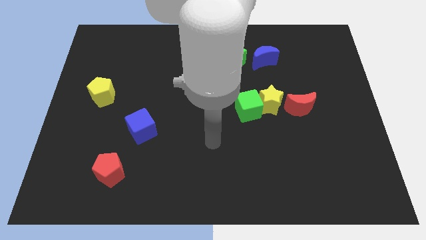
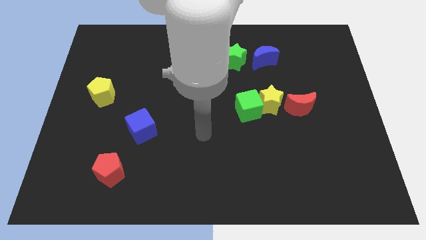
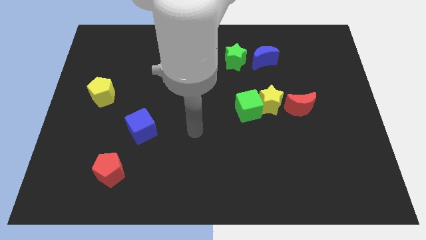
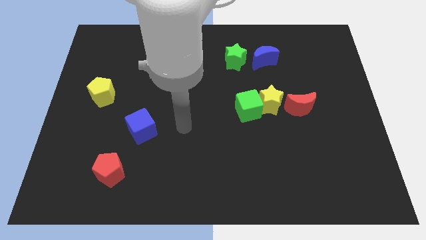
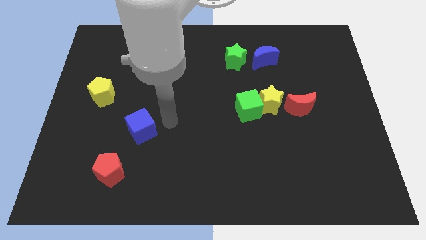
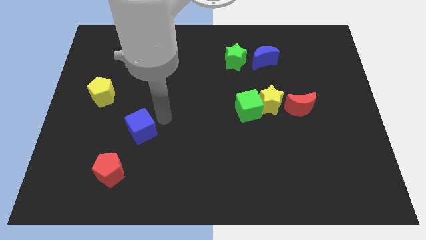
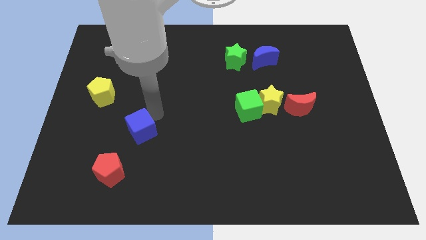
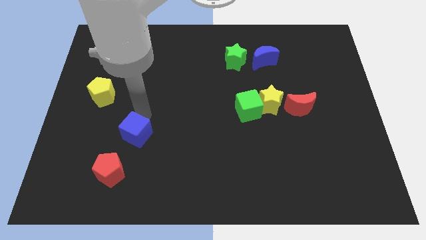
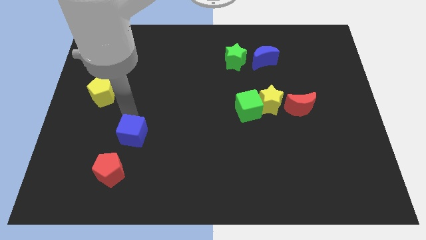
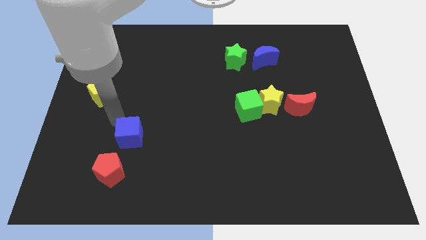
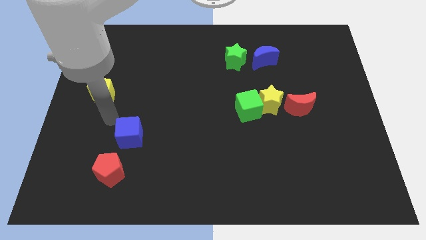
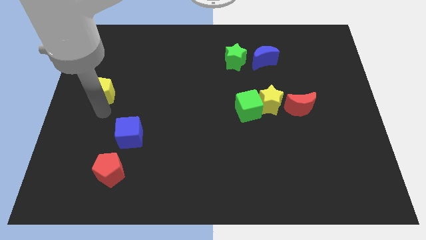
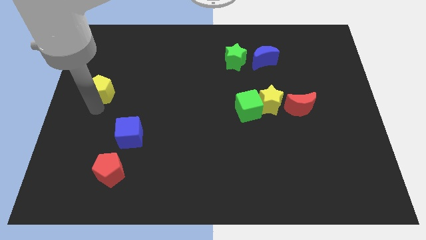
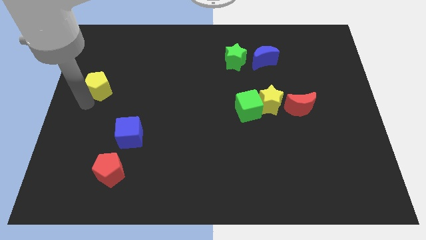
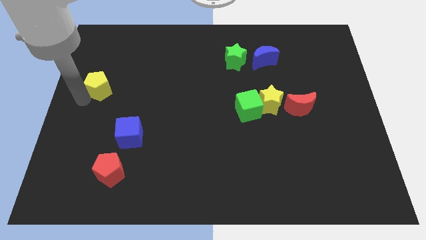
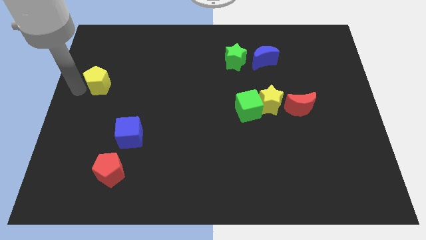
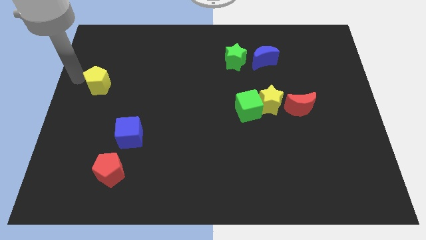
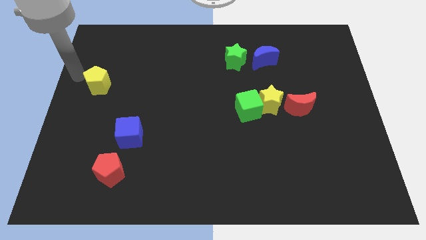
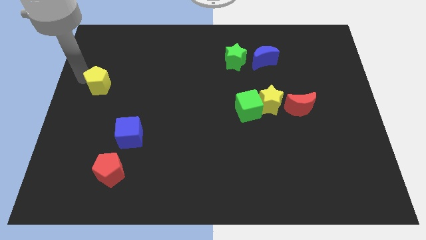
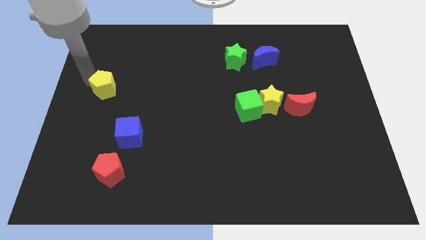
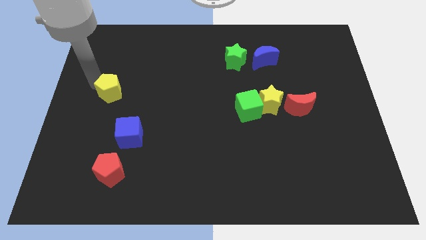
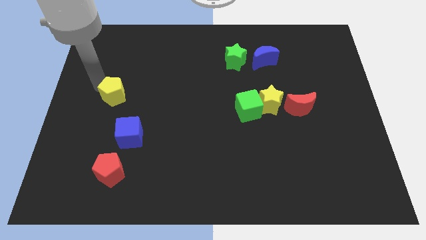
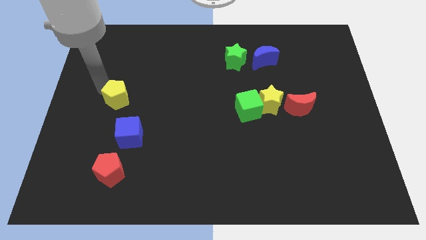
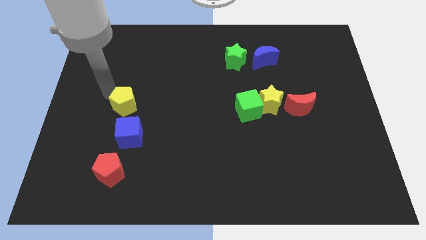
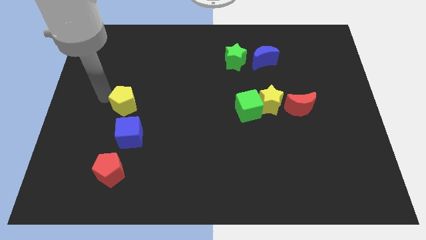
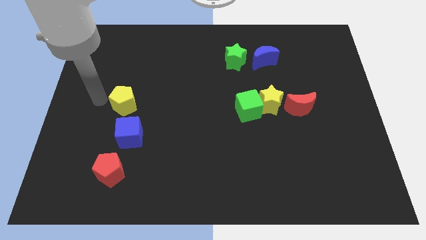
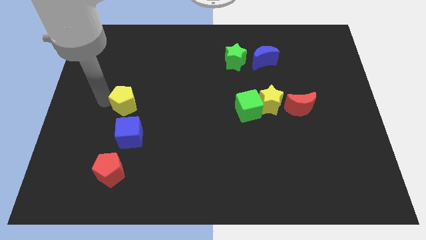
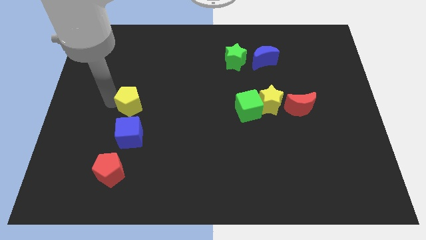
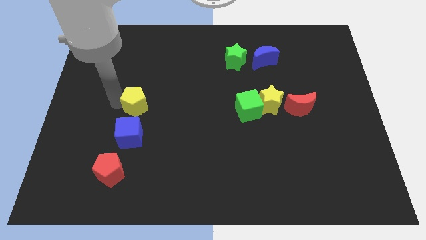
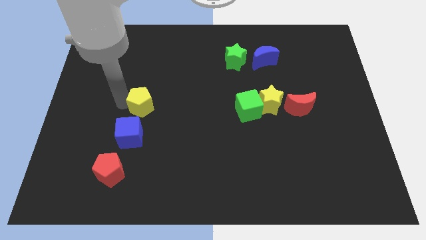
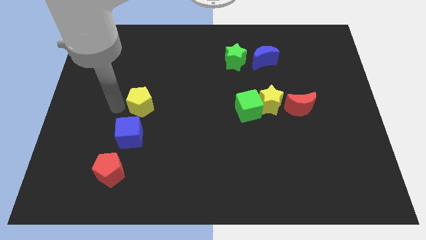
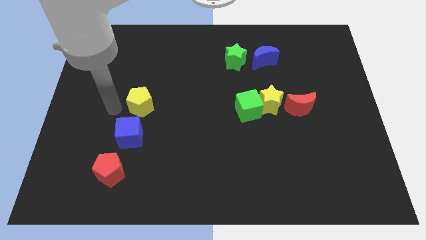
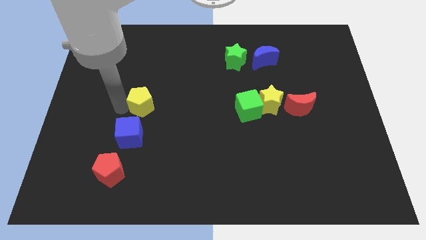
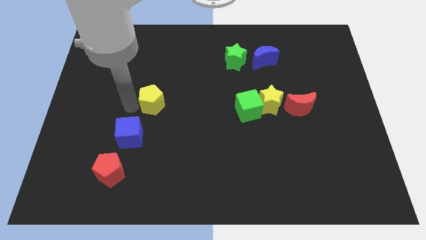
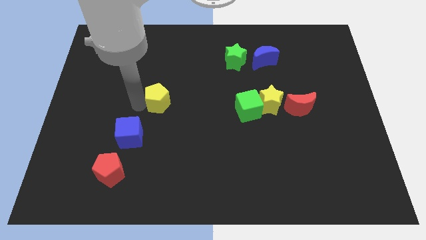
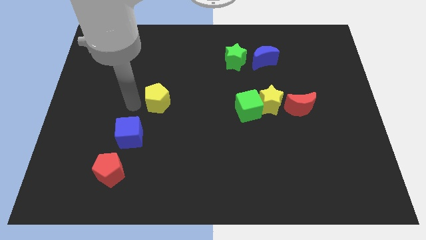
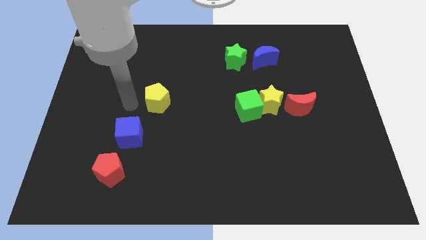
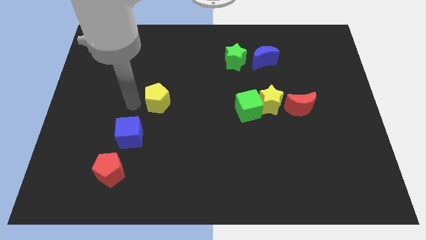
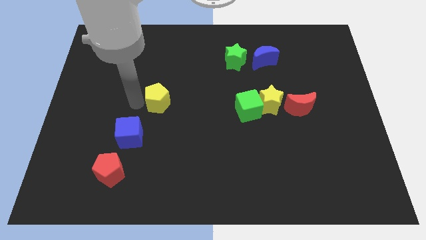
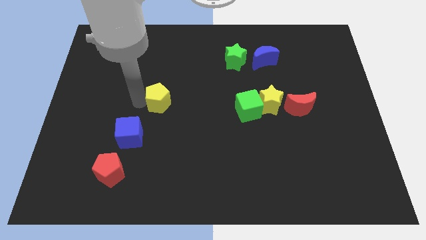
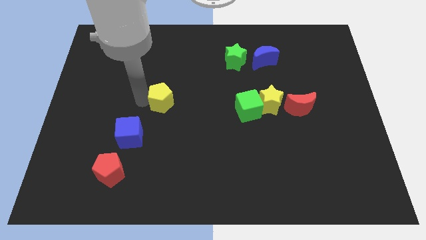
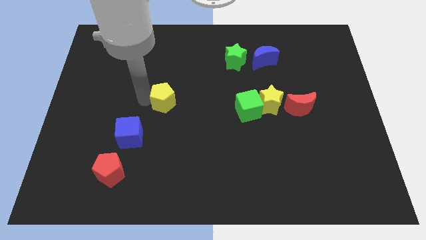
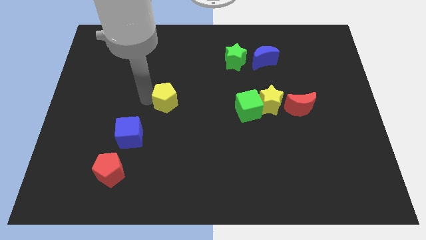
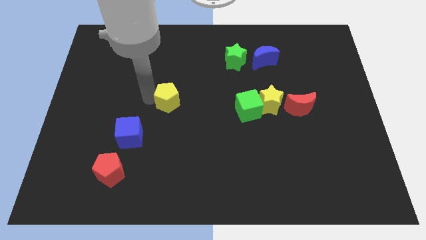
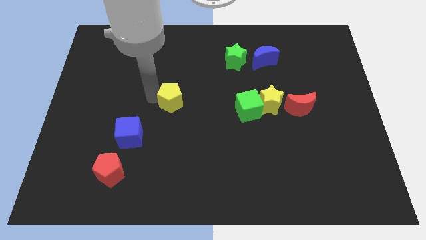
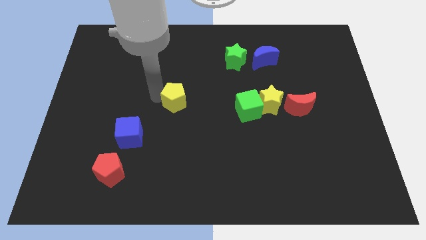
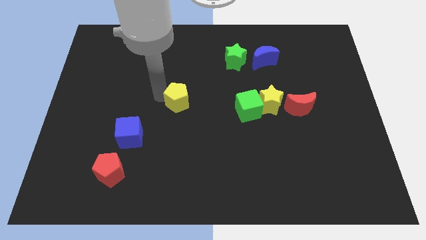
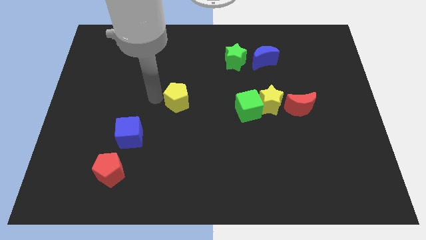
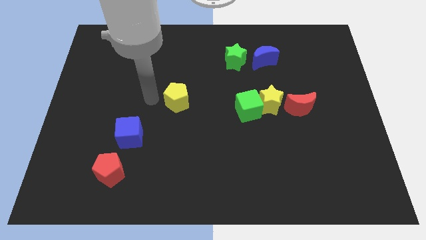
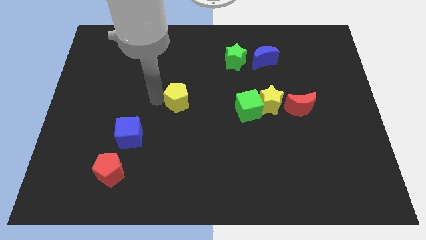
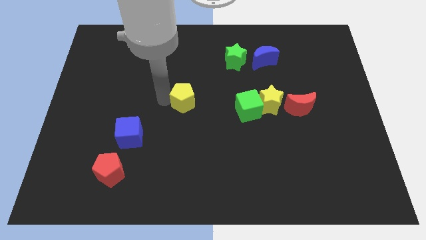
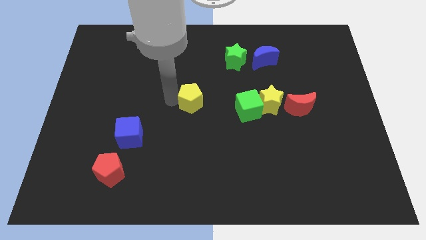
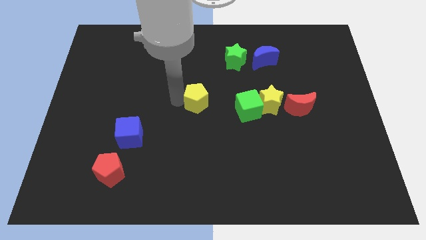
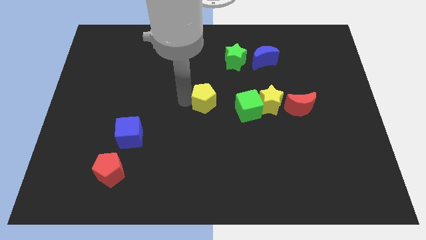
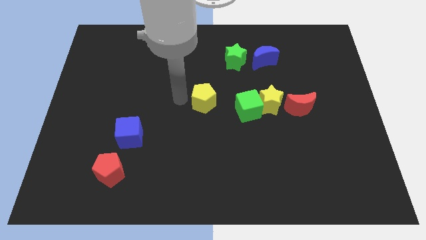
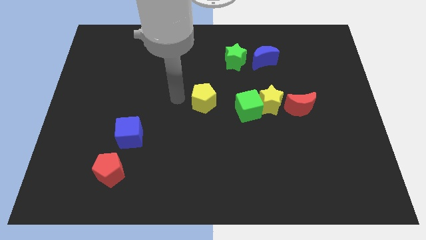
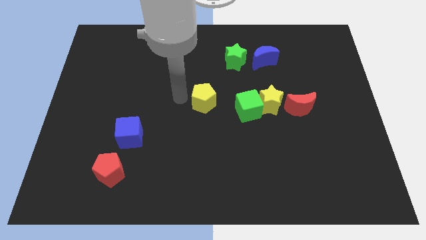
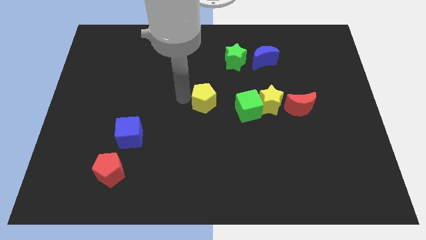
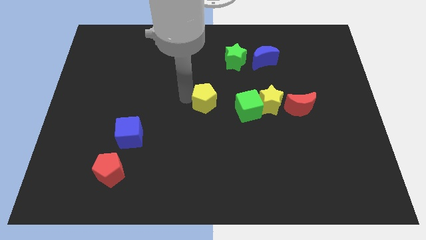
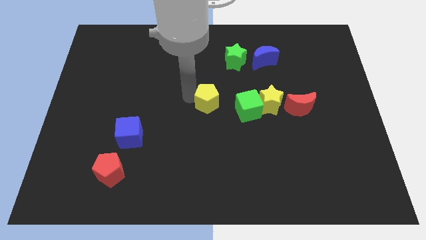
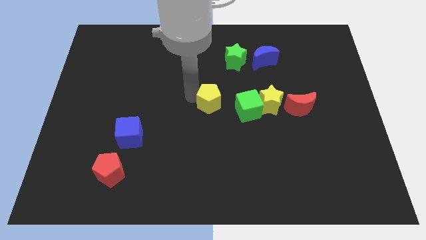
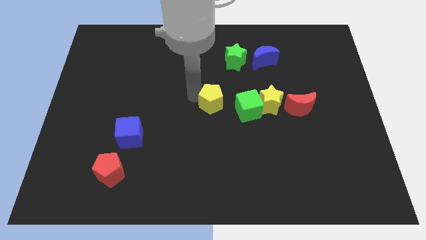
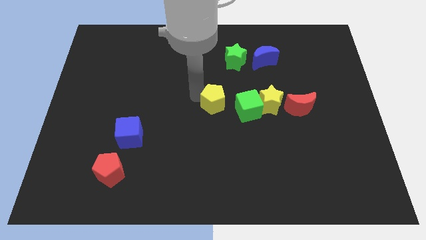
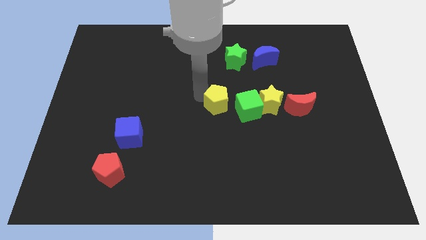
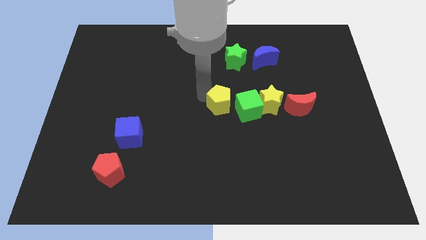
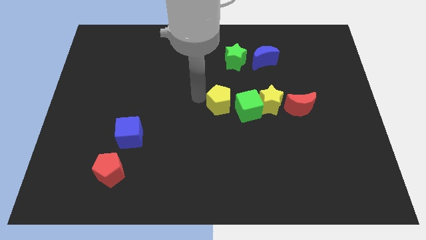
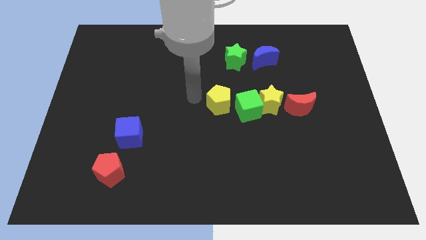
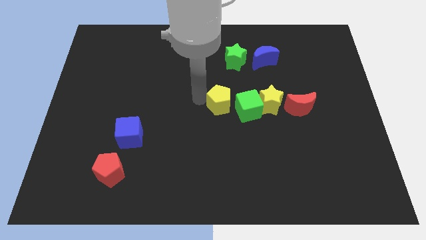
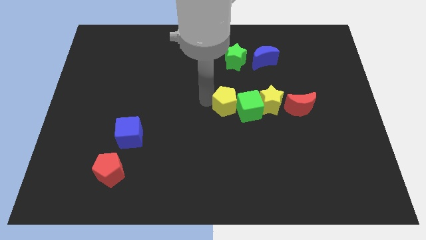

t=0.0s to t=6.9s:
move the yellow pentagon to the green cube

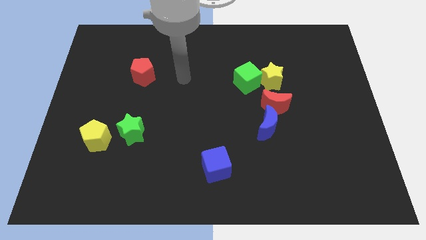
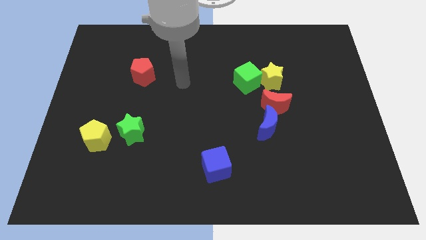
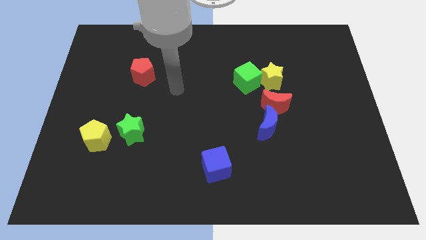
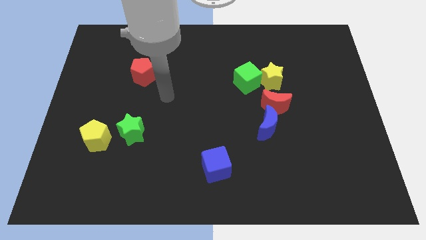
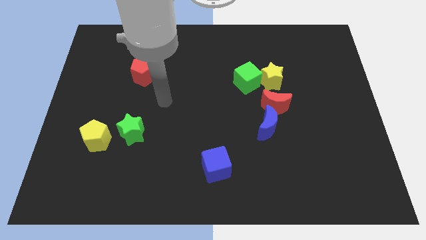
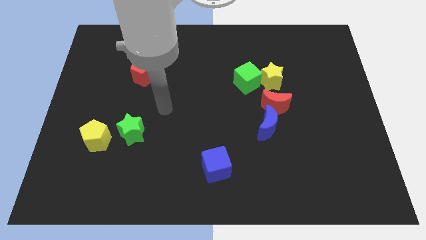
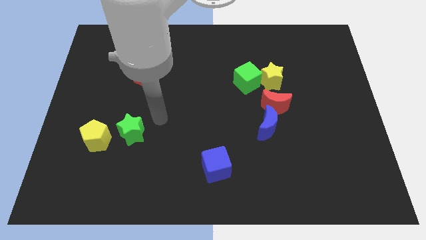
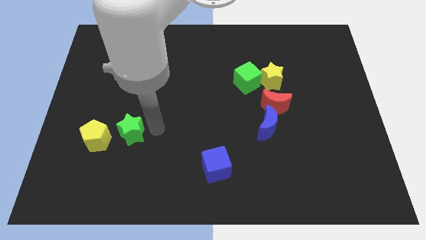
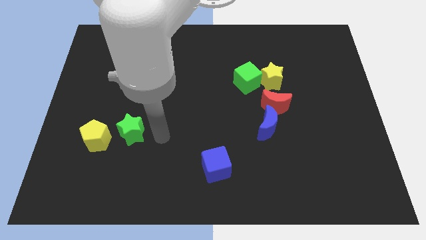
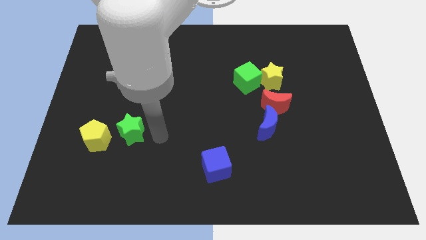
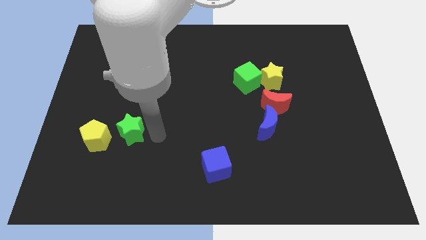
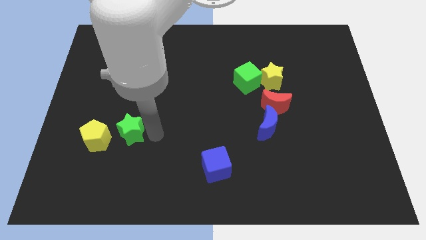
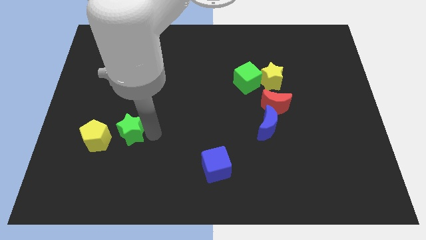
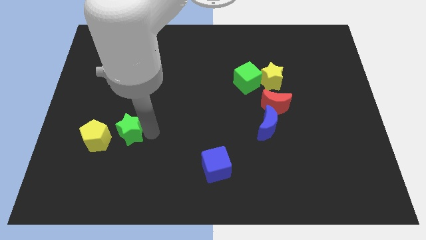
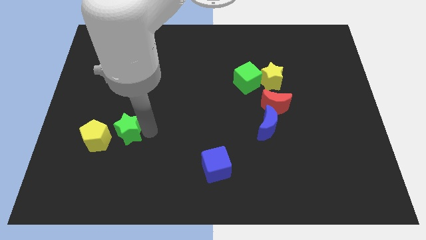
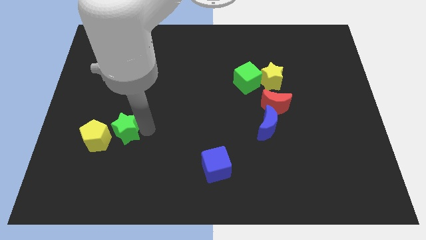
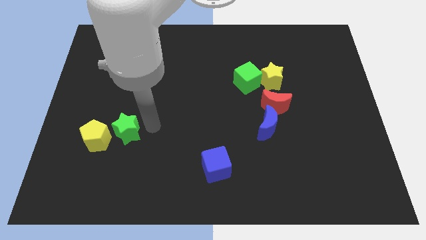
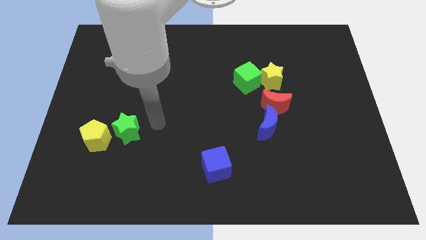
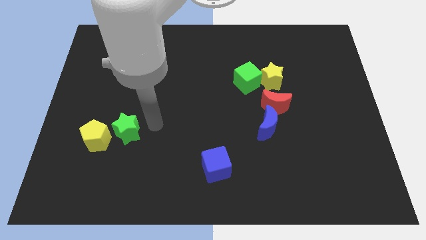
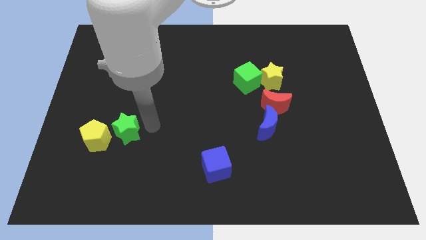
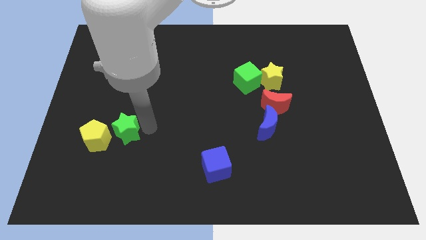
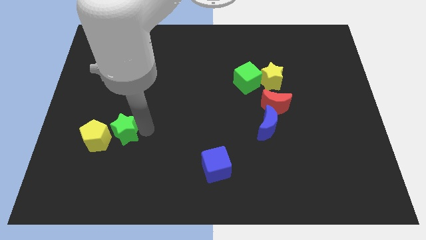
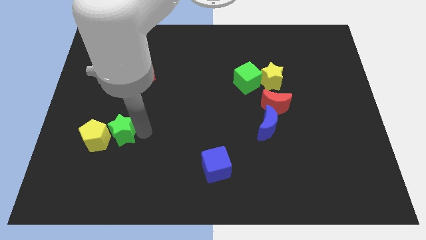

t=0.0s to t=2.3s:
put the green star close to the yellow pentagon
